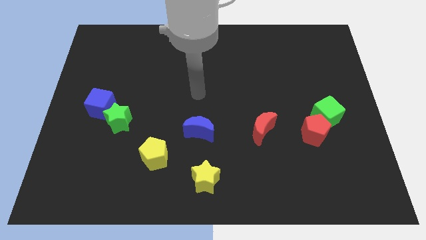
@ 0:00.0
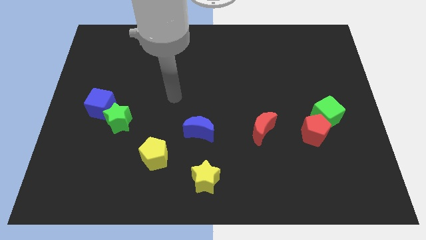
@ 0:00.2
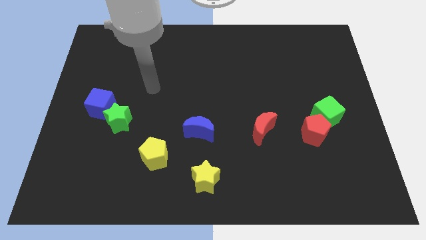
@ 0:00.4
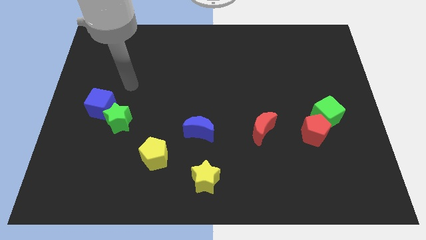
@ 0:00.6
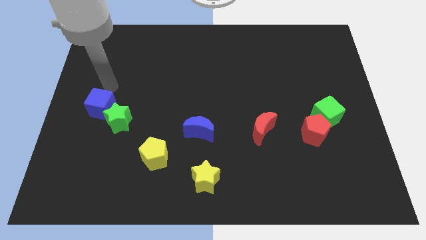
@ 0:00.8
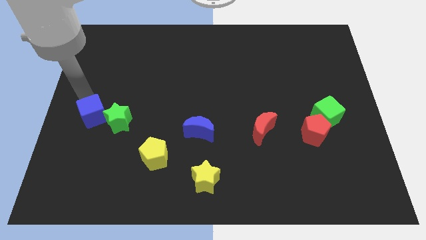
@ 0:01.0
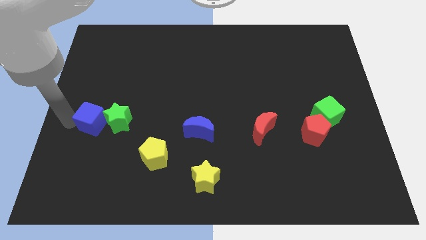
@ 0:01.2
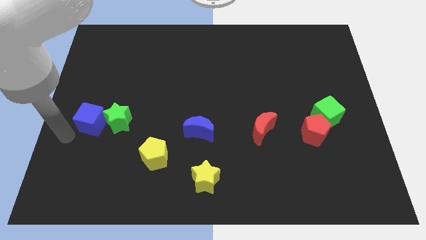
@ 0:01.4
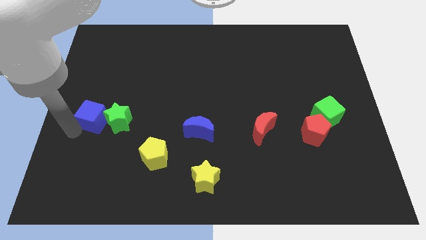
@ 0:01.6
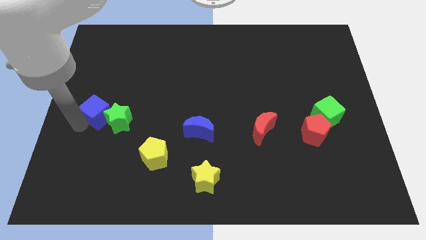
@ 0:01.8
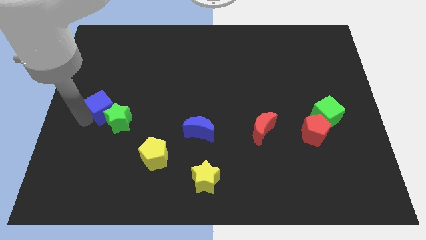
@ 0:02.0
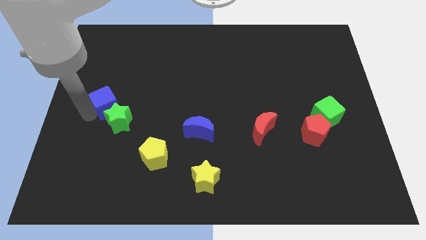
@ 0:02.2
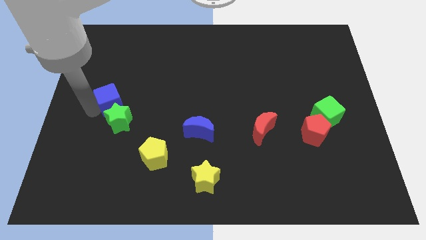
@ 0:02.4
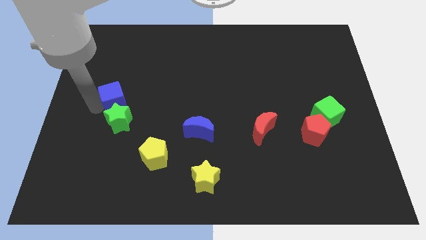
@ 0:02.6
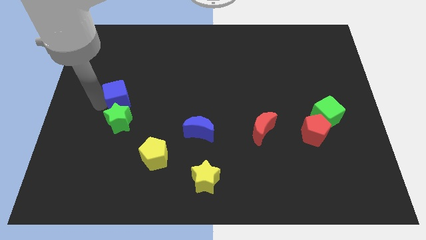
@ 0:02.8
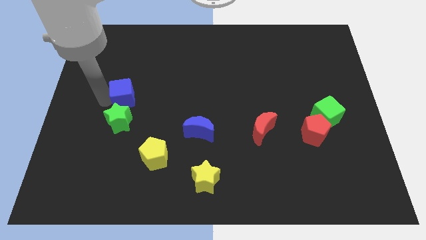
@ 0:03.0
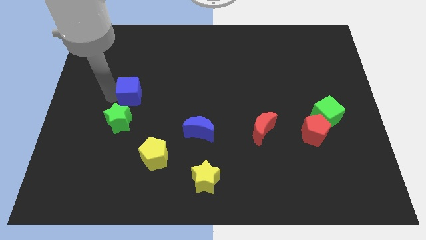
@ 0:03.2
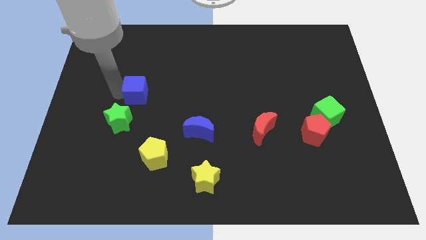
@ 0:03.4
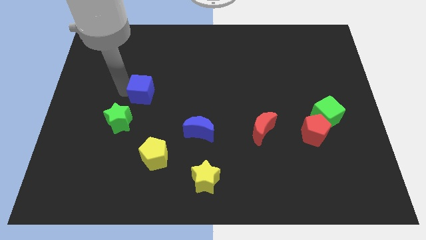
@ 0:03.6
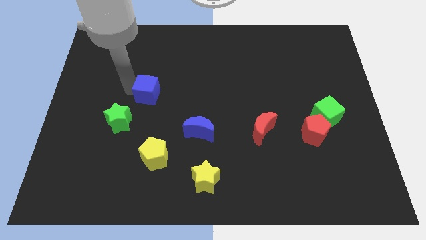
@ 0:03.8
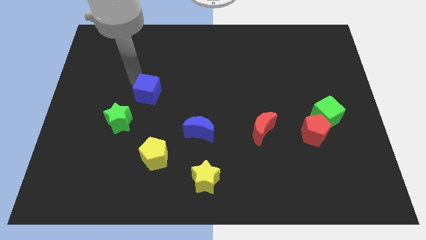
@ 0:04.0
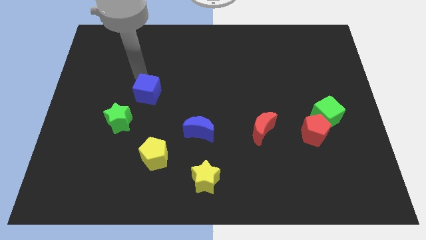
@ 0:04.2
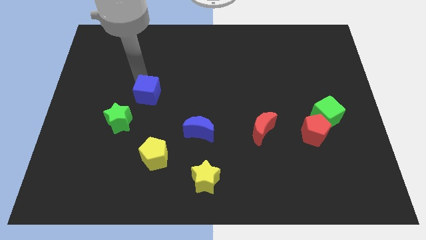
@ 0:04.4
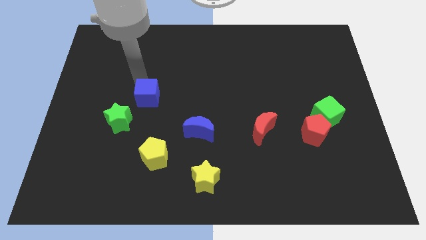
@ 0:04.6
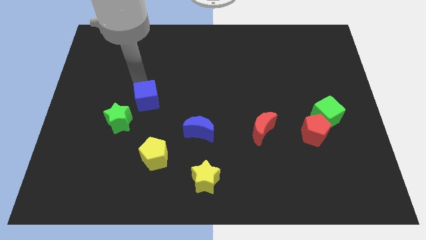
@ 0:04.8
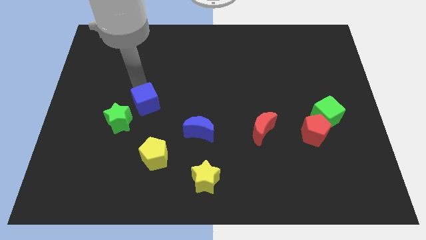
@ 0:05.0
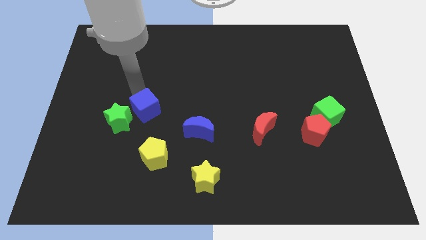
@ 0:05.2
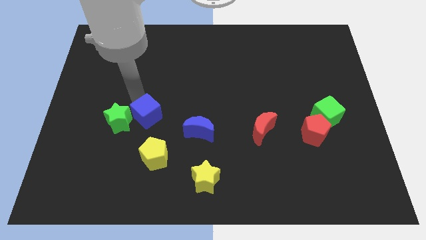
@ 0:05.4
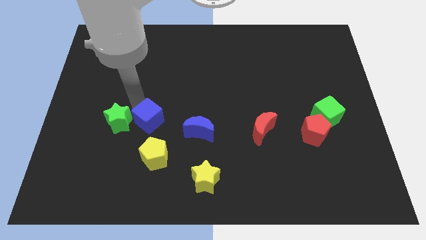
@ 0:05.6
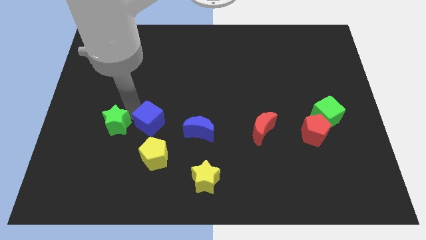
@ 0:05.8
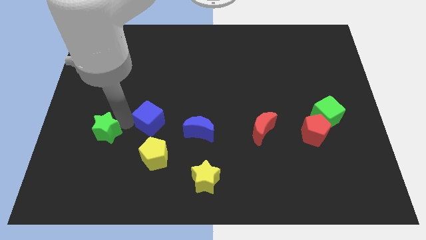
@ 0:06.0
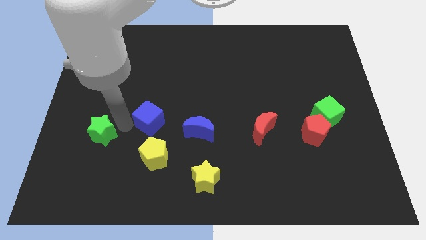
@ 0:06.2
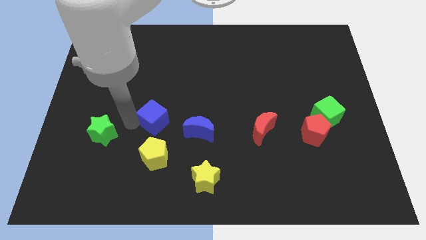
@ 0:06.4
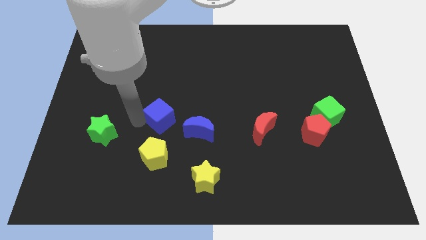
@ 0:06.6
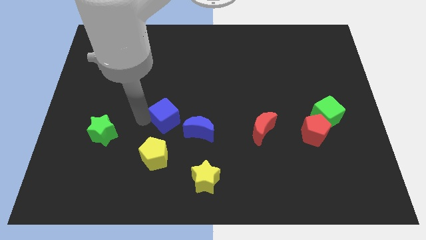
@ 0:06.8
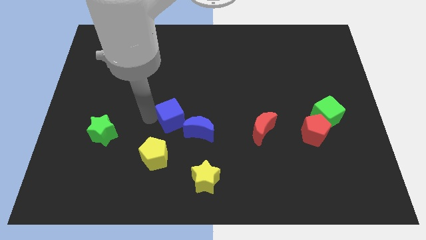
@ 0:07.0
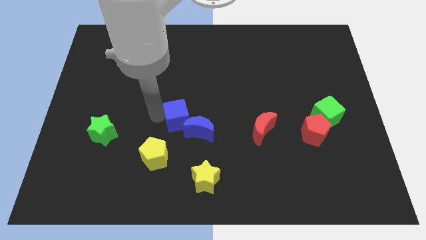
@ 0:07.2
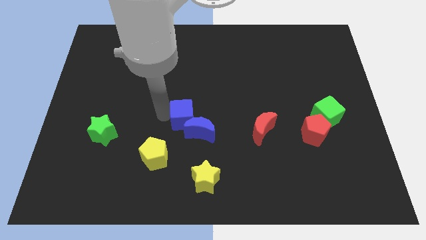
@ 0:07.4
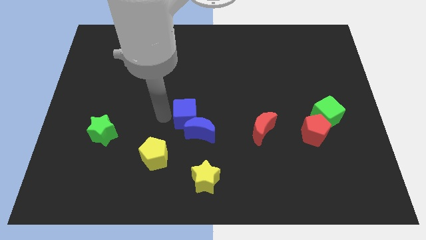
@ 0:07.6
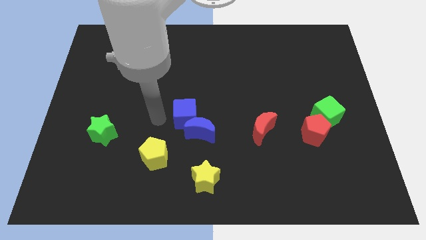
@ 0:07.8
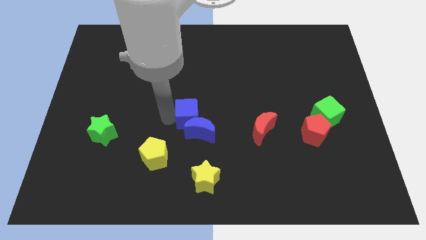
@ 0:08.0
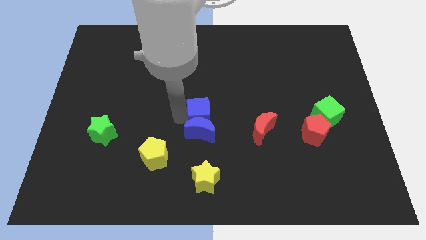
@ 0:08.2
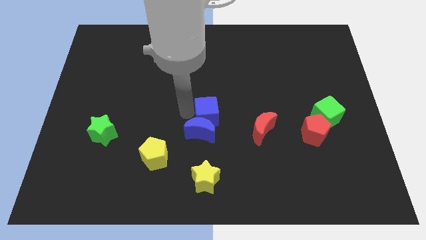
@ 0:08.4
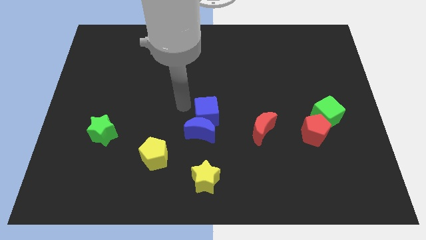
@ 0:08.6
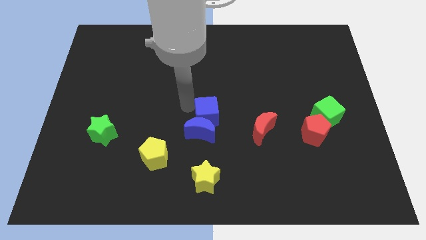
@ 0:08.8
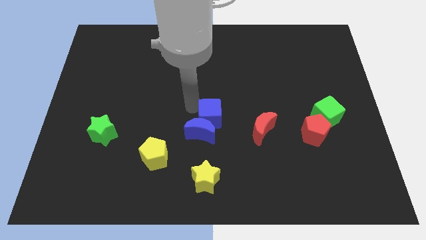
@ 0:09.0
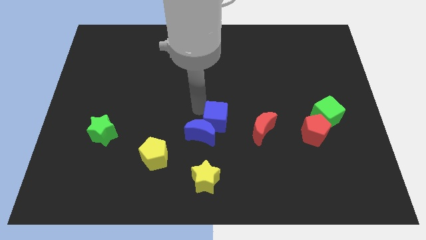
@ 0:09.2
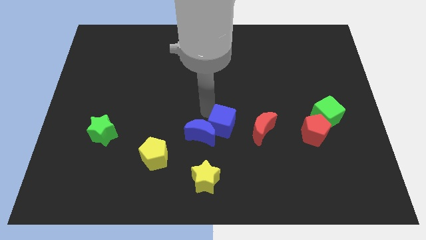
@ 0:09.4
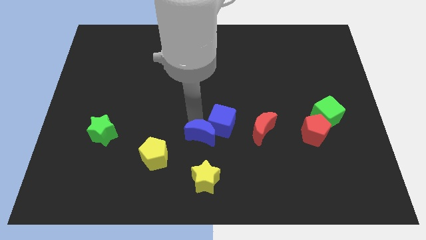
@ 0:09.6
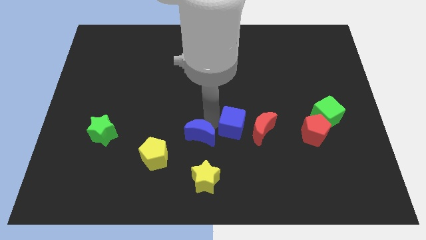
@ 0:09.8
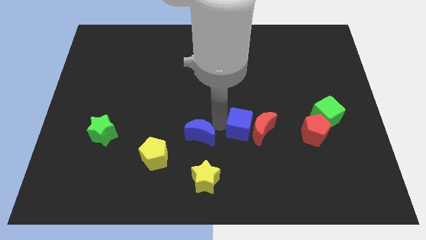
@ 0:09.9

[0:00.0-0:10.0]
move the blue cube to the red moon

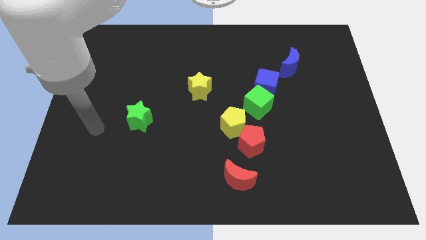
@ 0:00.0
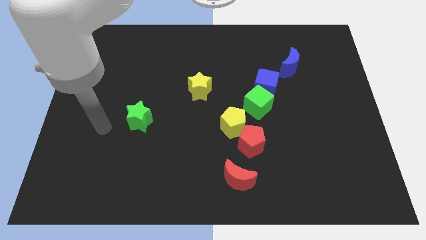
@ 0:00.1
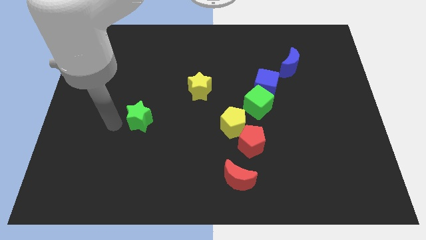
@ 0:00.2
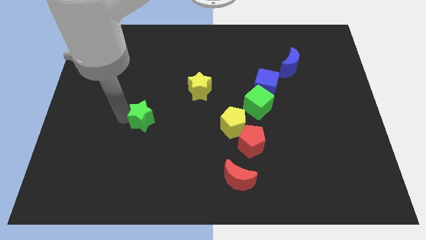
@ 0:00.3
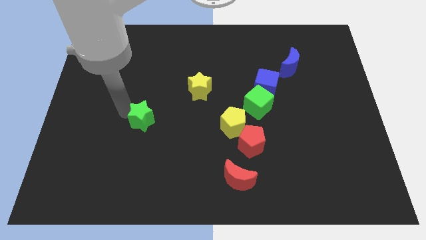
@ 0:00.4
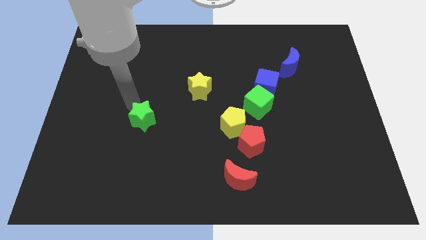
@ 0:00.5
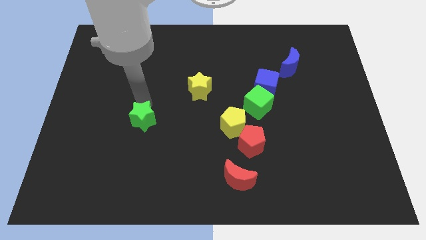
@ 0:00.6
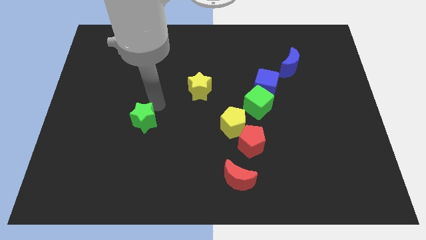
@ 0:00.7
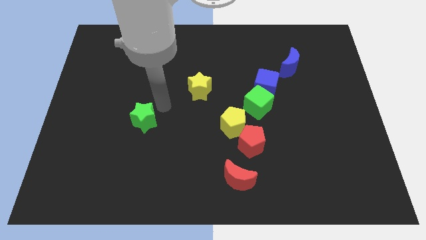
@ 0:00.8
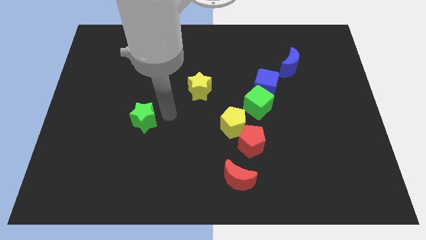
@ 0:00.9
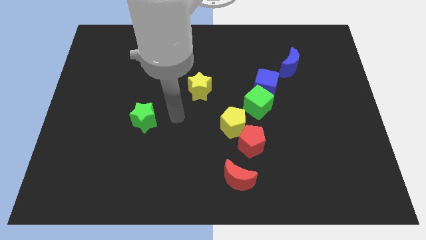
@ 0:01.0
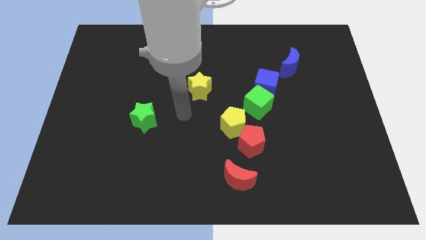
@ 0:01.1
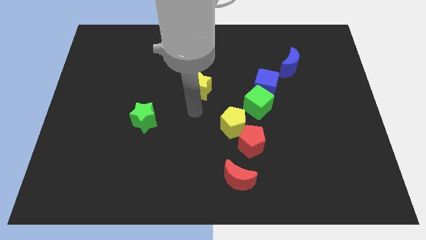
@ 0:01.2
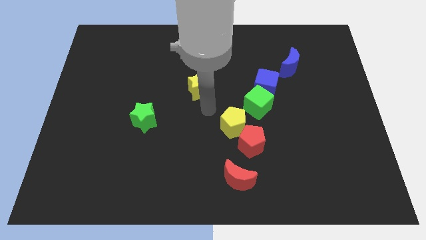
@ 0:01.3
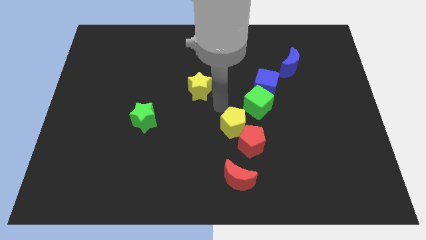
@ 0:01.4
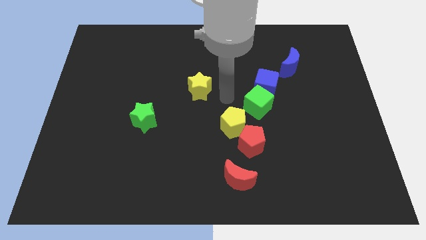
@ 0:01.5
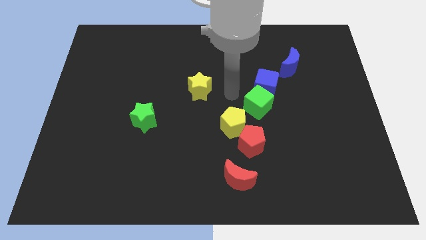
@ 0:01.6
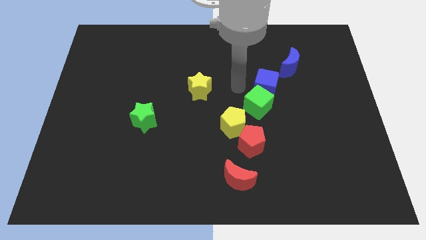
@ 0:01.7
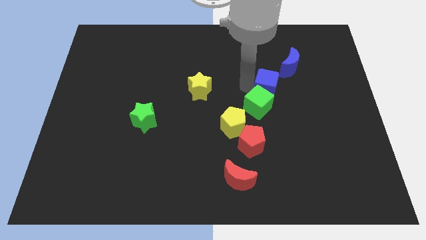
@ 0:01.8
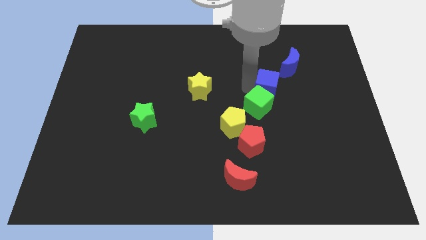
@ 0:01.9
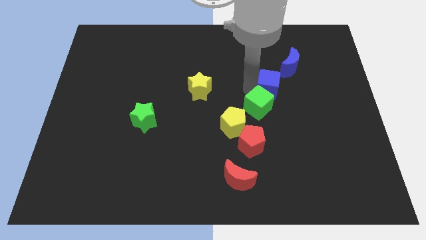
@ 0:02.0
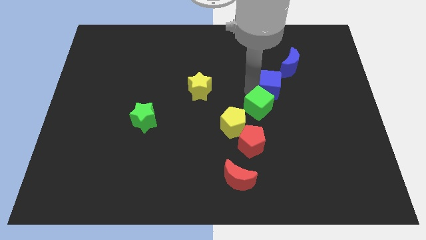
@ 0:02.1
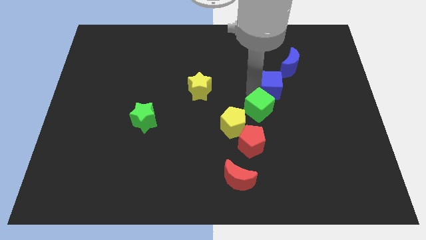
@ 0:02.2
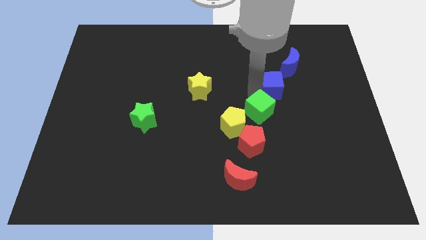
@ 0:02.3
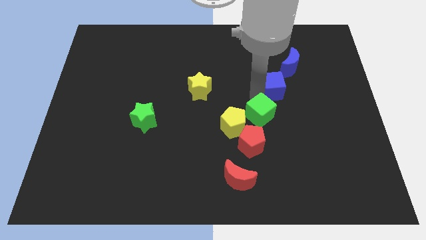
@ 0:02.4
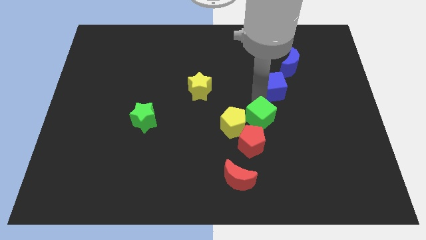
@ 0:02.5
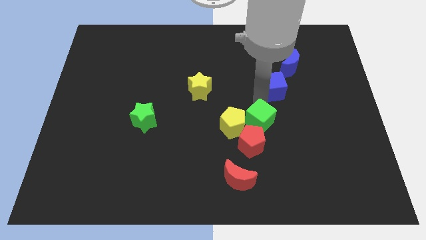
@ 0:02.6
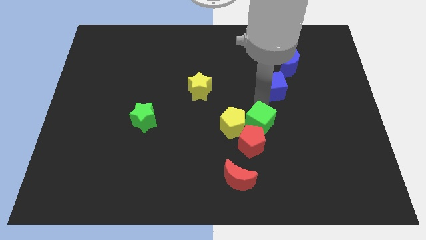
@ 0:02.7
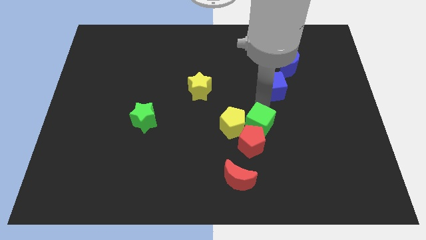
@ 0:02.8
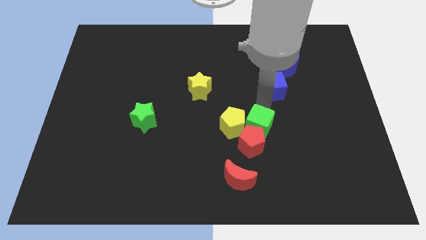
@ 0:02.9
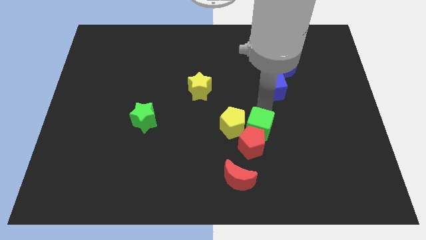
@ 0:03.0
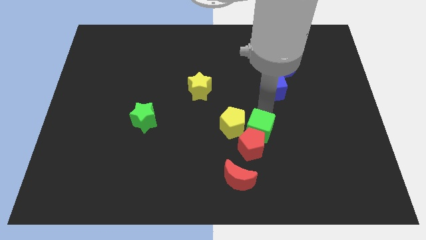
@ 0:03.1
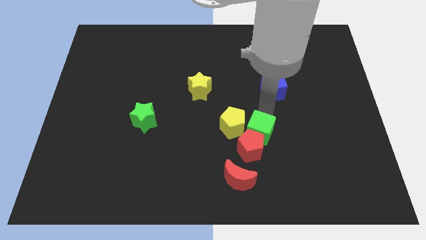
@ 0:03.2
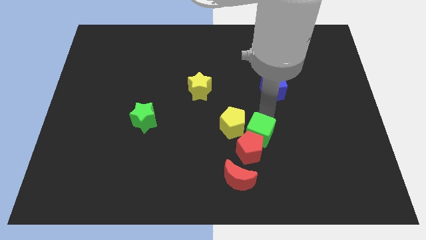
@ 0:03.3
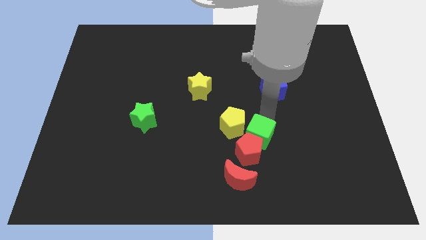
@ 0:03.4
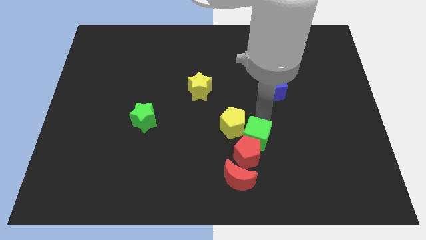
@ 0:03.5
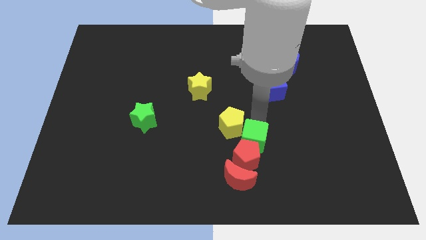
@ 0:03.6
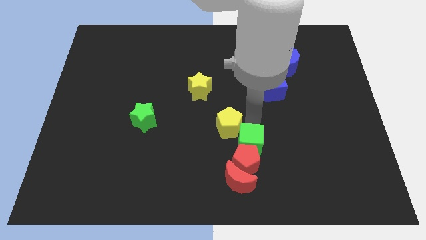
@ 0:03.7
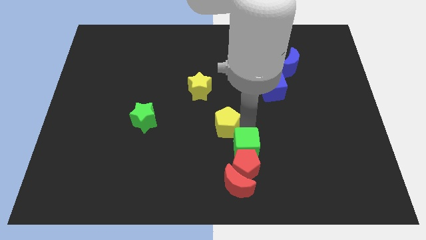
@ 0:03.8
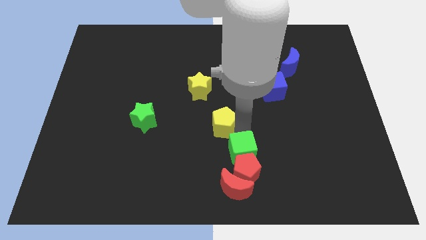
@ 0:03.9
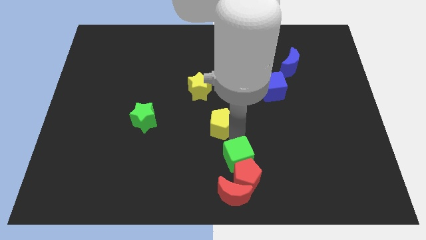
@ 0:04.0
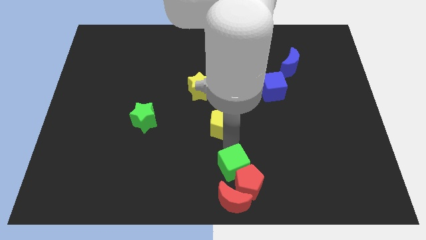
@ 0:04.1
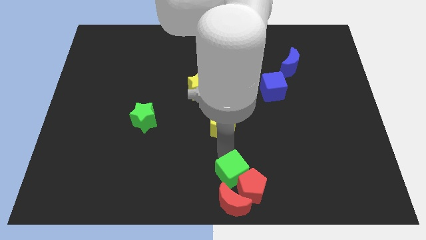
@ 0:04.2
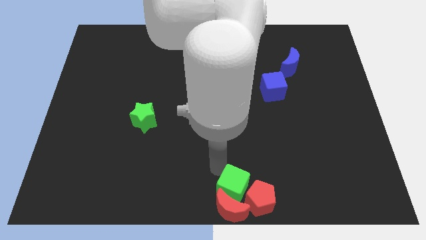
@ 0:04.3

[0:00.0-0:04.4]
put the green cube close to the red moon
